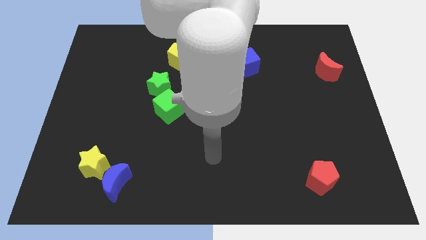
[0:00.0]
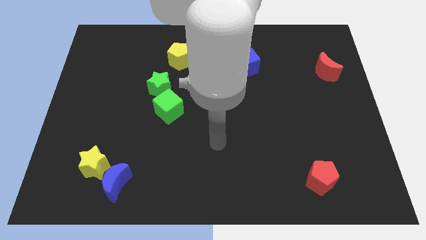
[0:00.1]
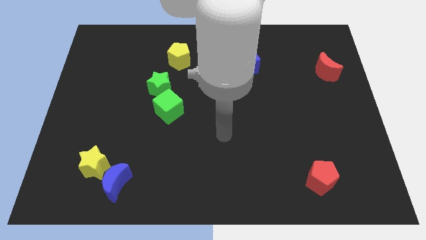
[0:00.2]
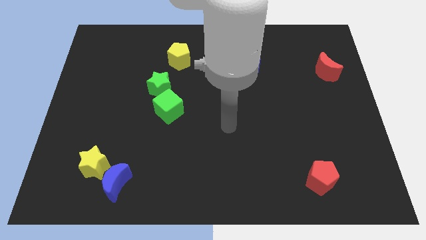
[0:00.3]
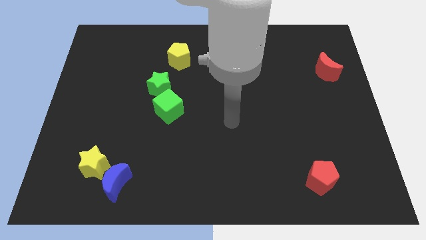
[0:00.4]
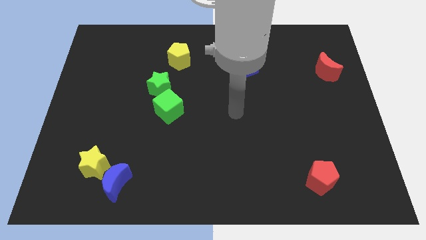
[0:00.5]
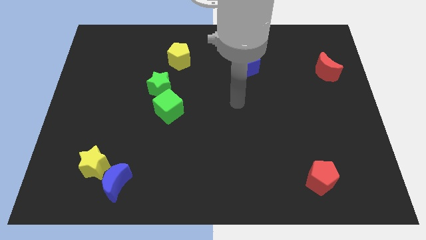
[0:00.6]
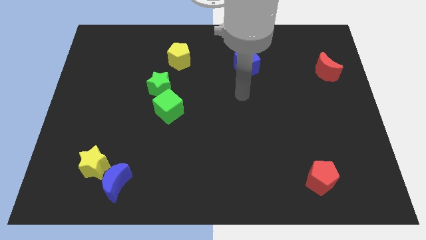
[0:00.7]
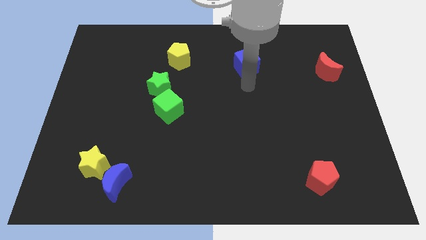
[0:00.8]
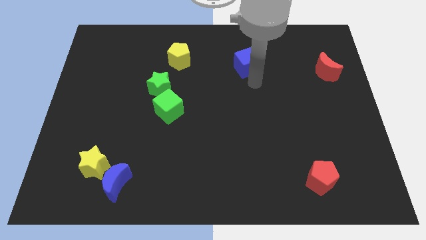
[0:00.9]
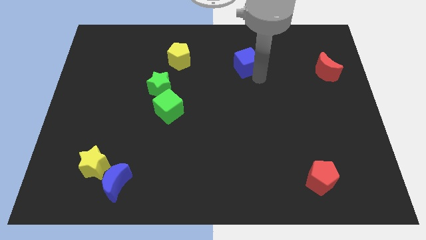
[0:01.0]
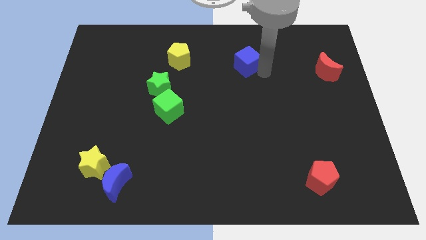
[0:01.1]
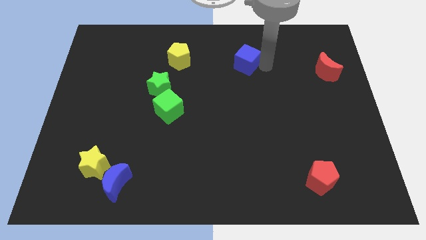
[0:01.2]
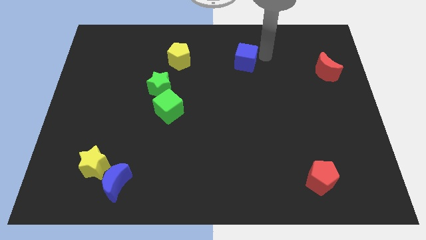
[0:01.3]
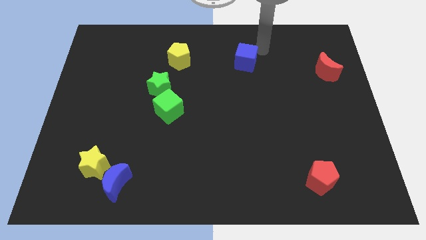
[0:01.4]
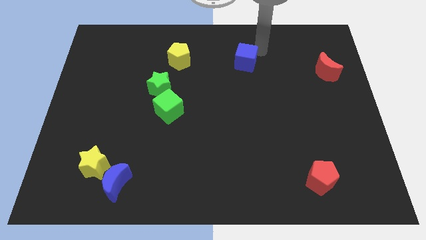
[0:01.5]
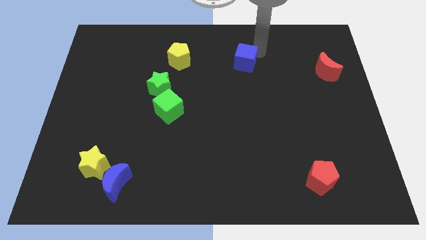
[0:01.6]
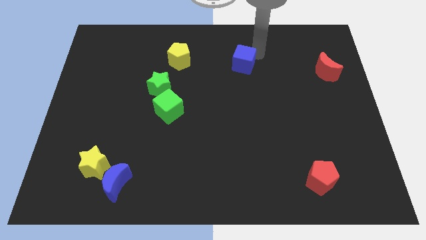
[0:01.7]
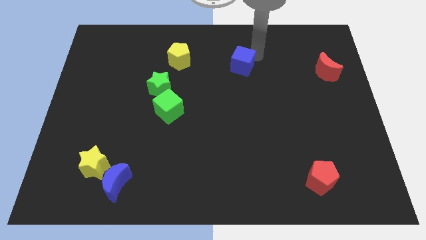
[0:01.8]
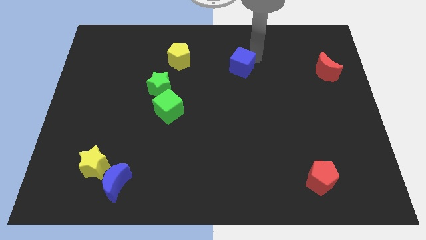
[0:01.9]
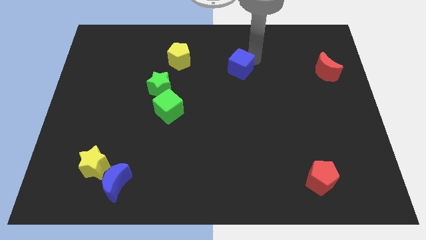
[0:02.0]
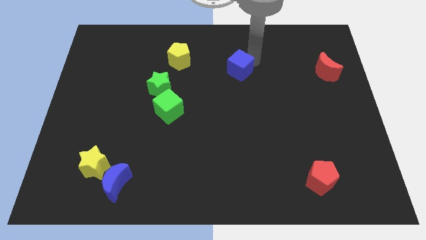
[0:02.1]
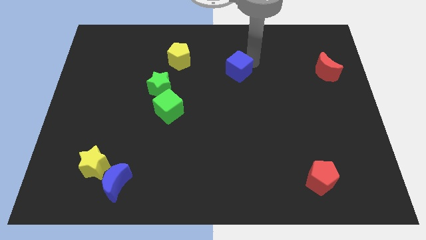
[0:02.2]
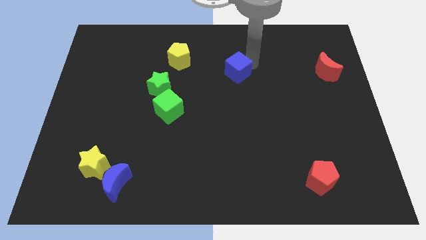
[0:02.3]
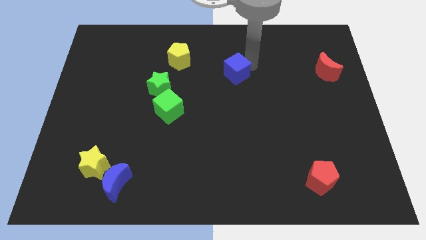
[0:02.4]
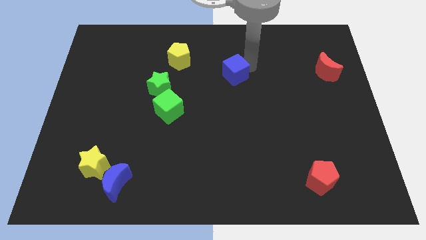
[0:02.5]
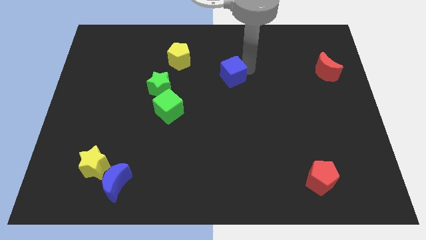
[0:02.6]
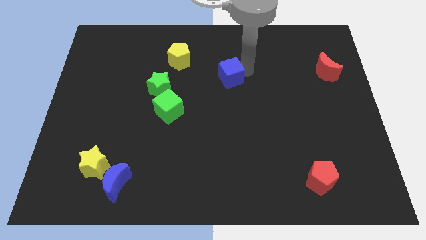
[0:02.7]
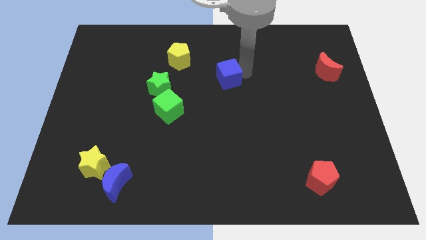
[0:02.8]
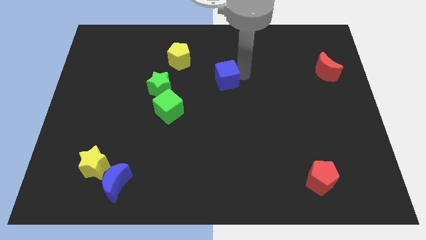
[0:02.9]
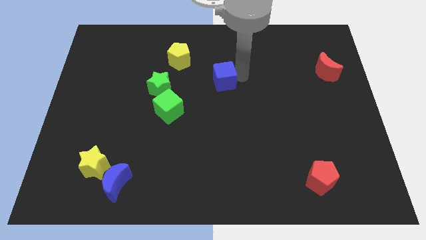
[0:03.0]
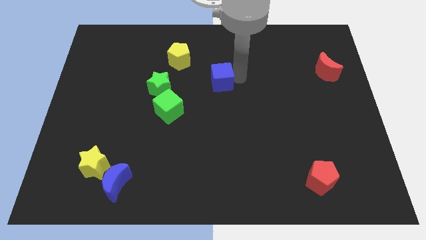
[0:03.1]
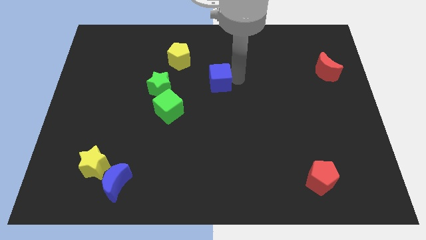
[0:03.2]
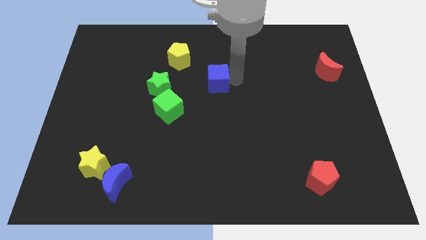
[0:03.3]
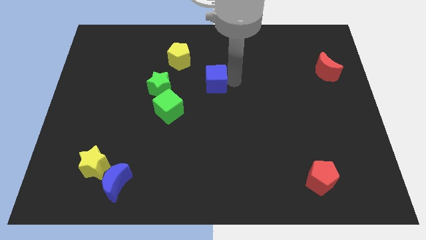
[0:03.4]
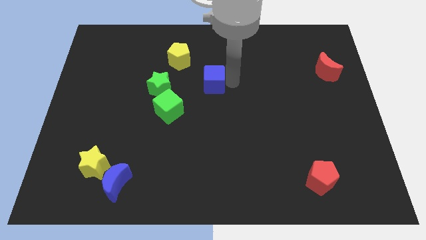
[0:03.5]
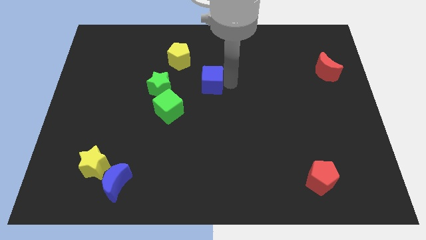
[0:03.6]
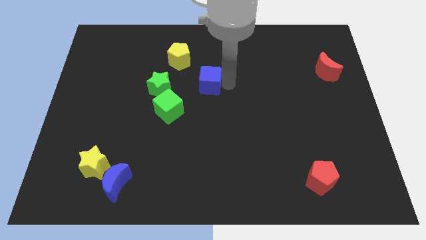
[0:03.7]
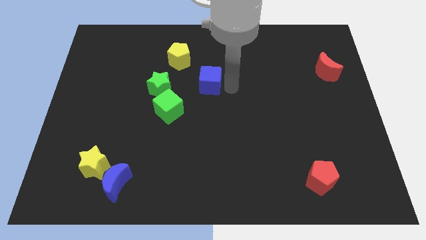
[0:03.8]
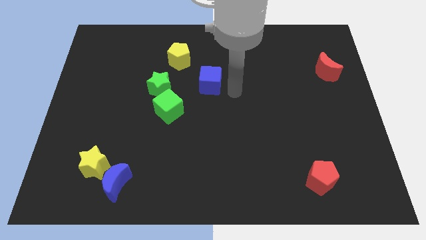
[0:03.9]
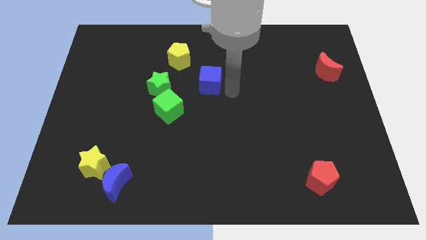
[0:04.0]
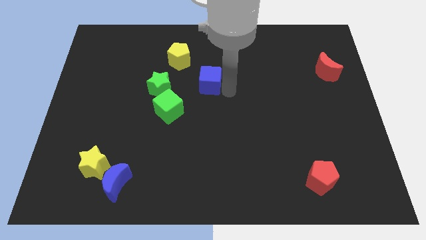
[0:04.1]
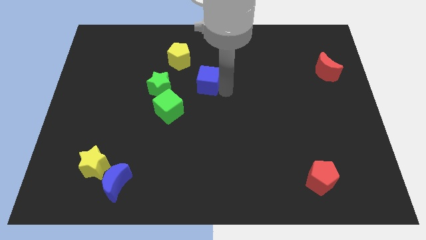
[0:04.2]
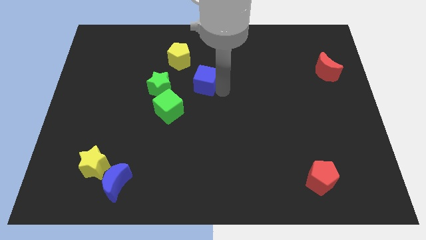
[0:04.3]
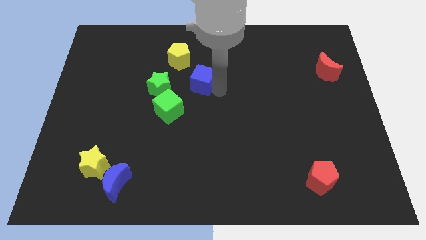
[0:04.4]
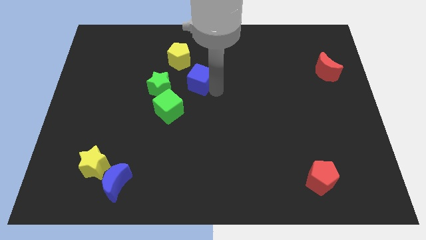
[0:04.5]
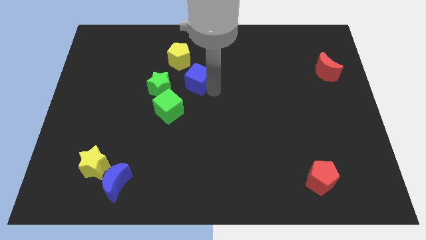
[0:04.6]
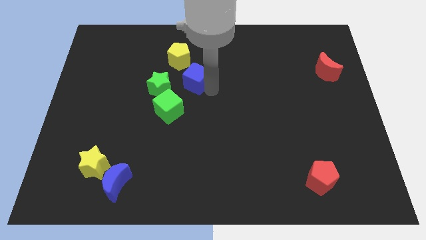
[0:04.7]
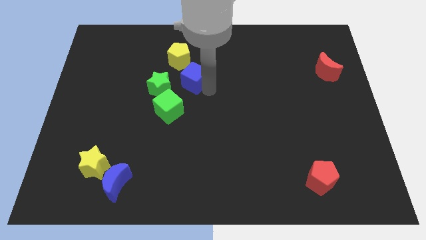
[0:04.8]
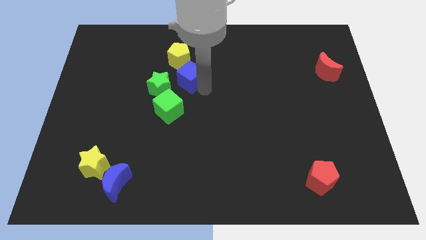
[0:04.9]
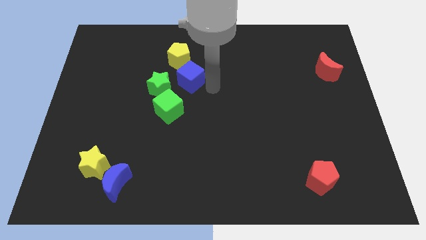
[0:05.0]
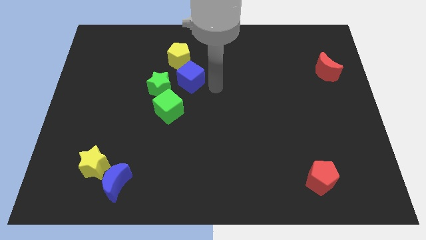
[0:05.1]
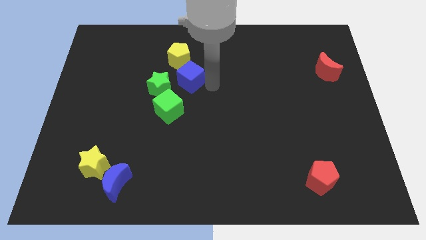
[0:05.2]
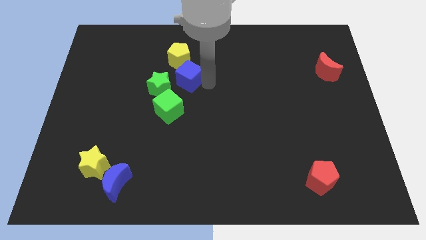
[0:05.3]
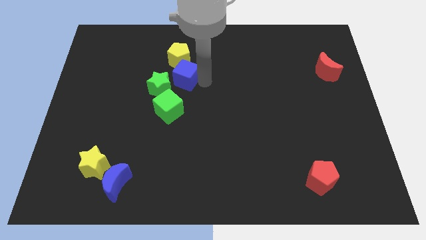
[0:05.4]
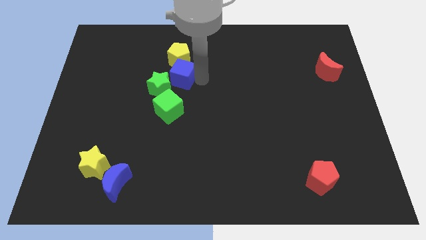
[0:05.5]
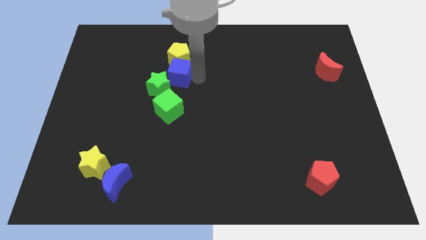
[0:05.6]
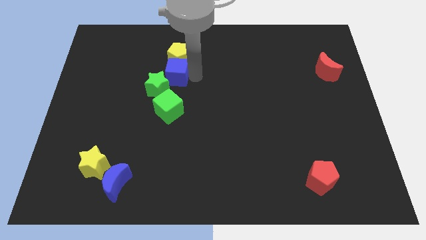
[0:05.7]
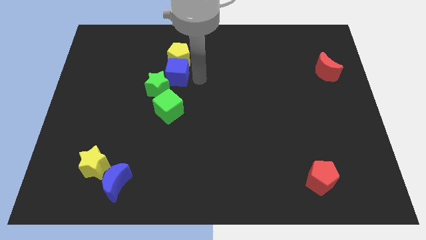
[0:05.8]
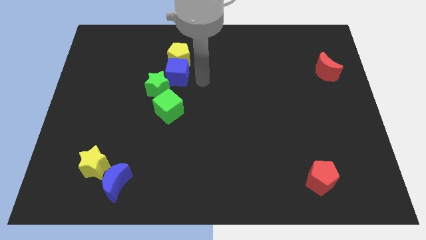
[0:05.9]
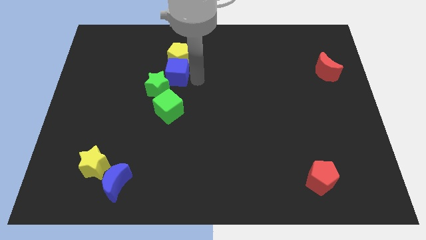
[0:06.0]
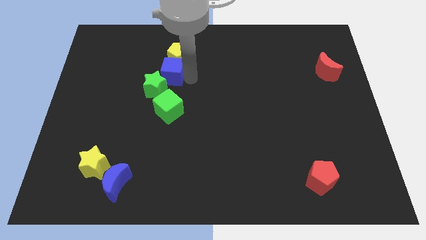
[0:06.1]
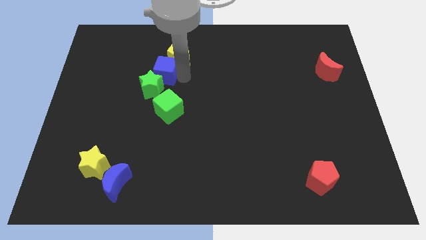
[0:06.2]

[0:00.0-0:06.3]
slide the blue cube to the left

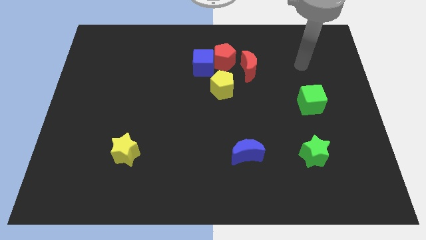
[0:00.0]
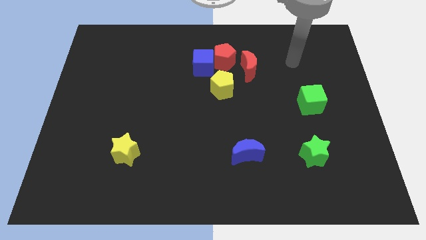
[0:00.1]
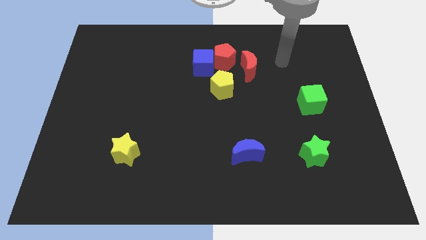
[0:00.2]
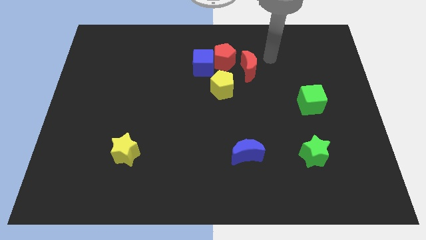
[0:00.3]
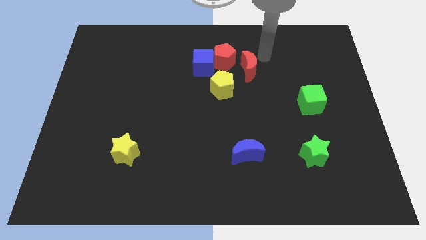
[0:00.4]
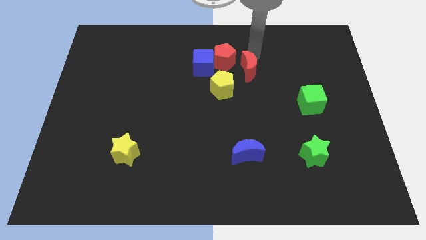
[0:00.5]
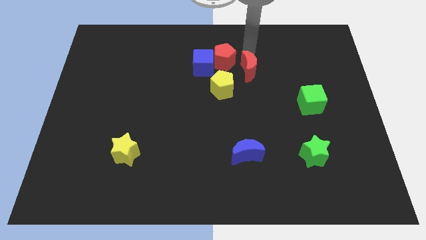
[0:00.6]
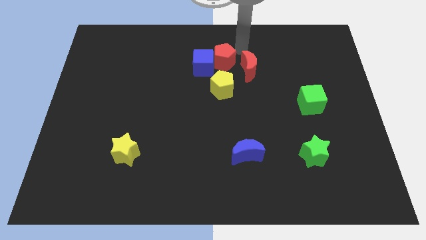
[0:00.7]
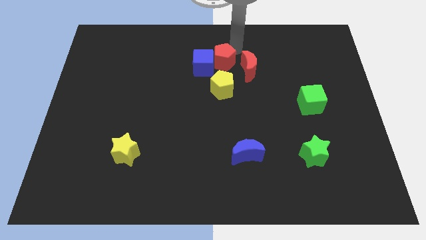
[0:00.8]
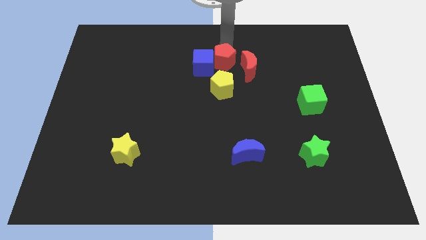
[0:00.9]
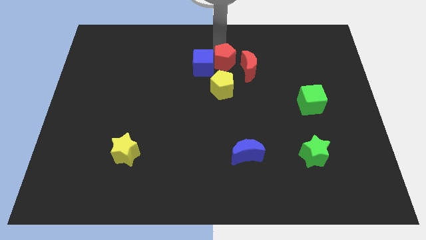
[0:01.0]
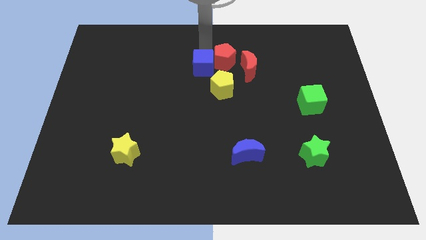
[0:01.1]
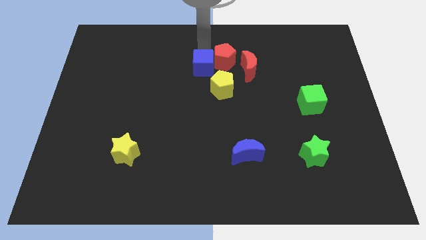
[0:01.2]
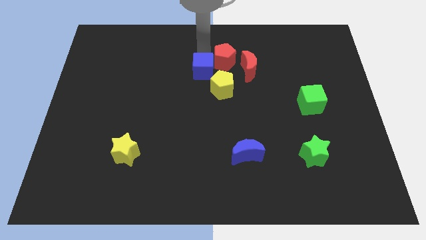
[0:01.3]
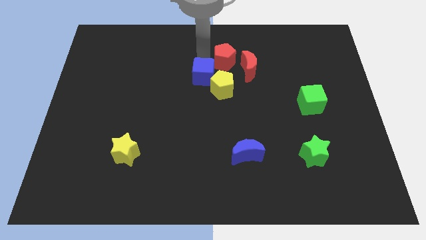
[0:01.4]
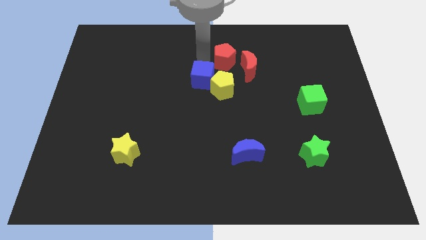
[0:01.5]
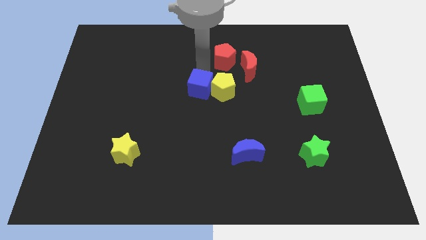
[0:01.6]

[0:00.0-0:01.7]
move the blue cube slightly down
